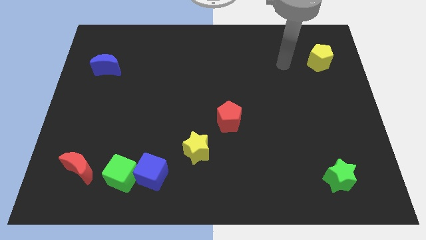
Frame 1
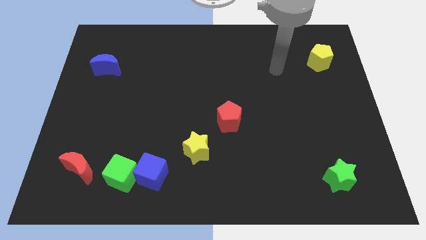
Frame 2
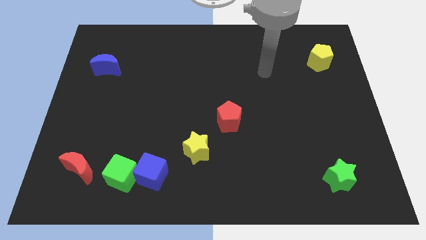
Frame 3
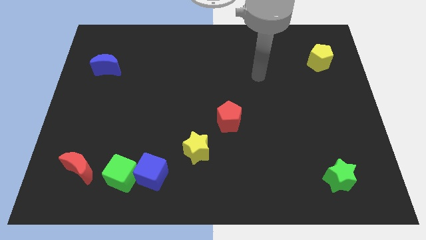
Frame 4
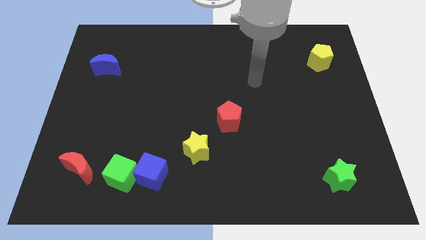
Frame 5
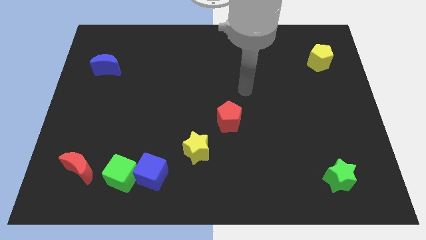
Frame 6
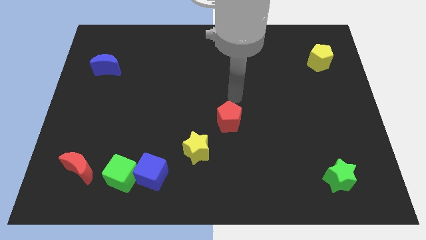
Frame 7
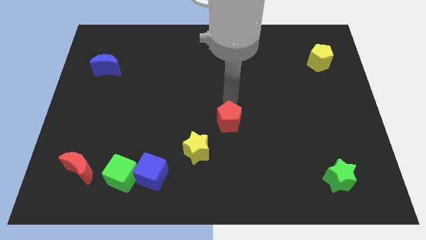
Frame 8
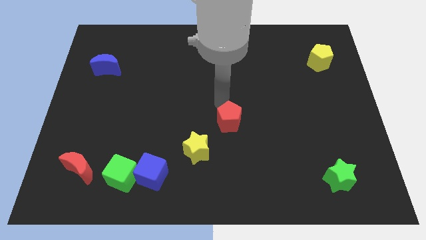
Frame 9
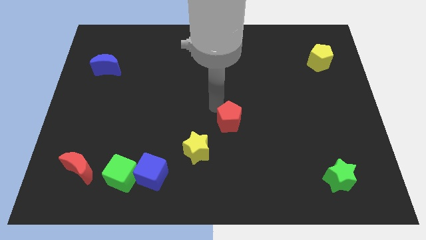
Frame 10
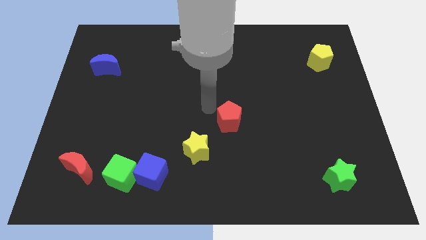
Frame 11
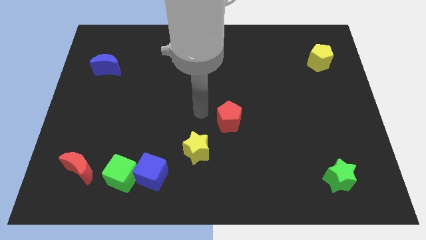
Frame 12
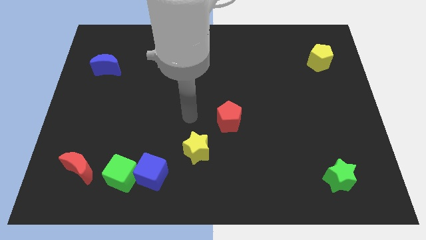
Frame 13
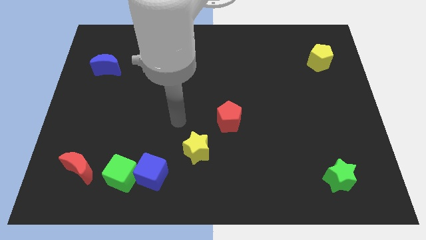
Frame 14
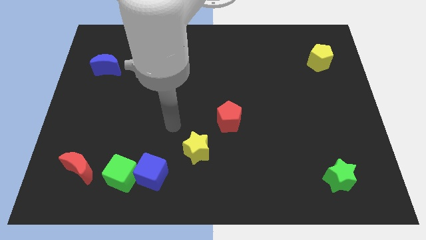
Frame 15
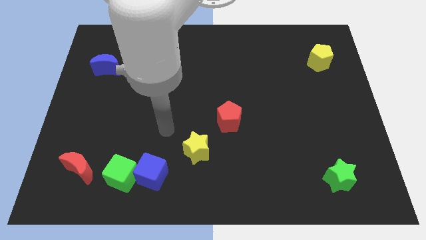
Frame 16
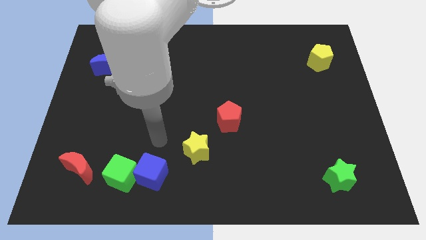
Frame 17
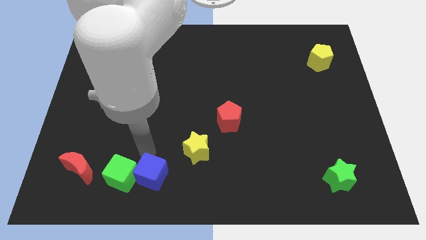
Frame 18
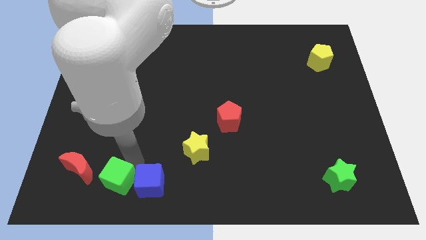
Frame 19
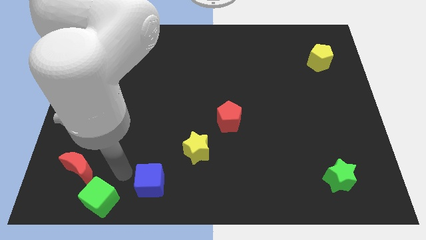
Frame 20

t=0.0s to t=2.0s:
separate the blue cube from the green cube

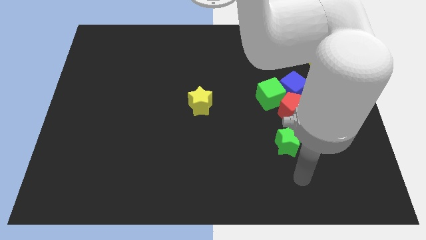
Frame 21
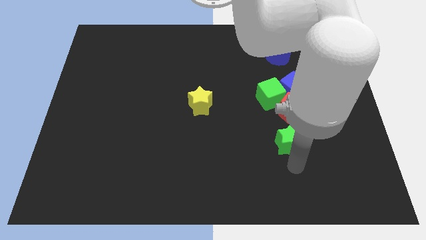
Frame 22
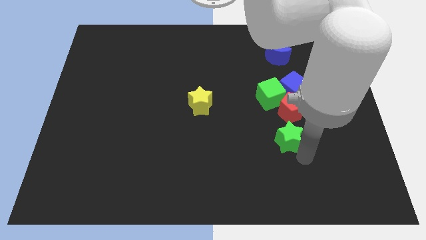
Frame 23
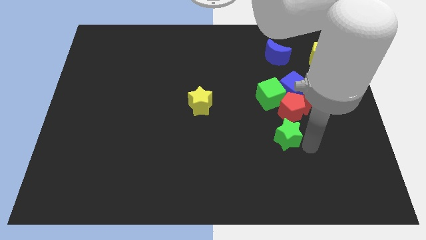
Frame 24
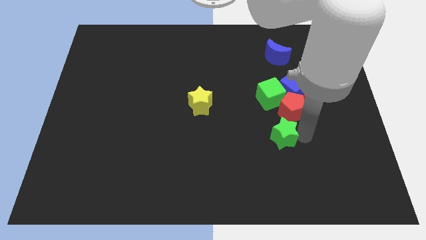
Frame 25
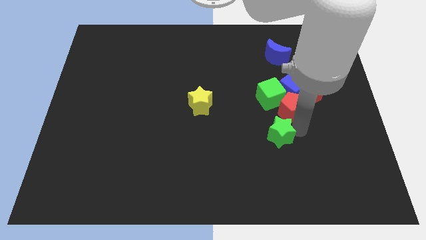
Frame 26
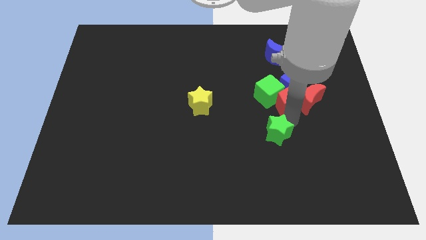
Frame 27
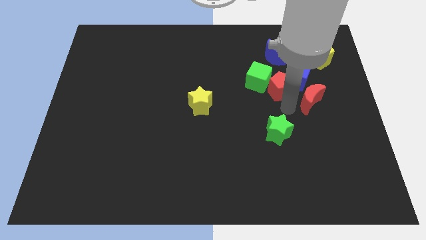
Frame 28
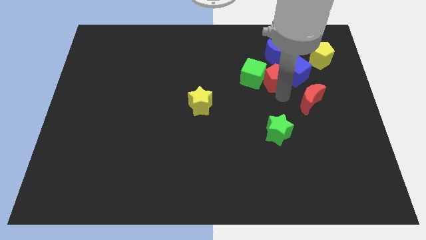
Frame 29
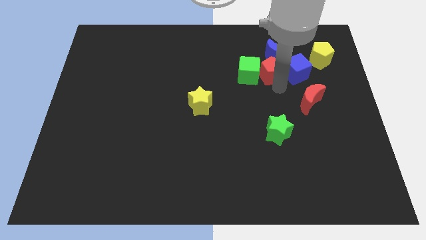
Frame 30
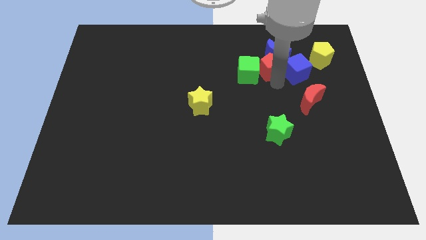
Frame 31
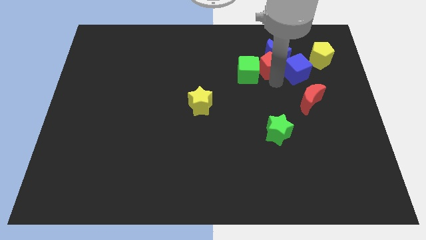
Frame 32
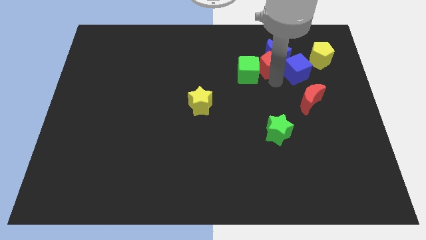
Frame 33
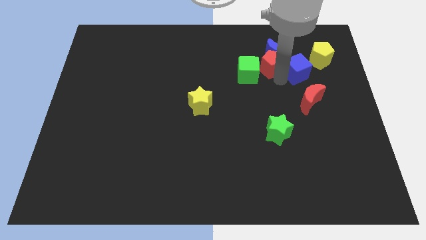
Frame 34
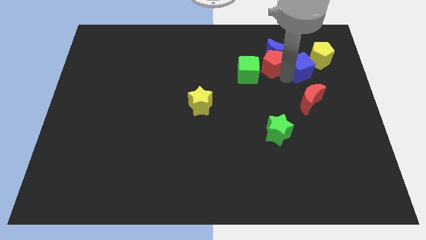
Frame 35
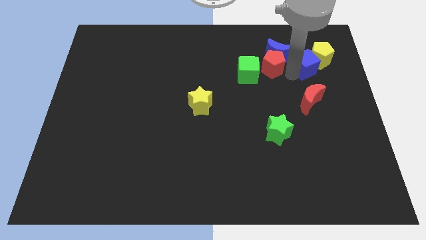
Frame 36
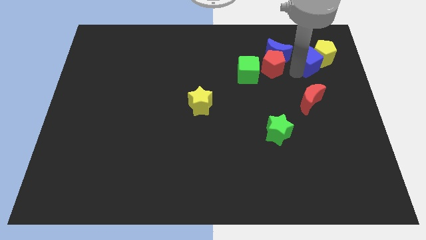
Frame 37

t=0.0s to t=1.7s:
move the blue cube away from the red moon, green cube, and red pentagon

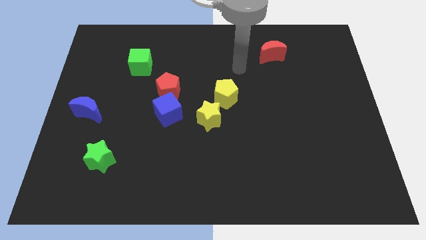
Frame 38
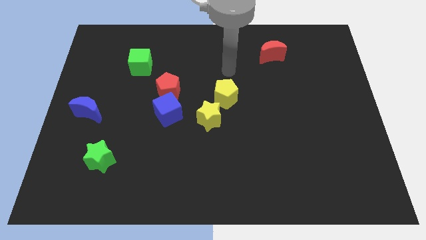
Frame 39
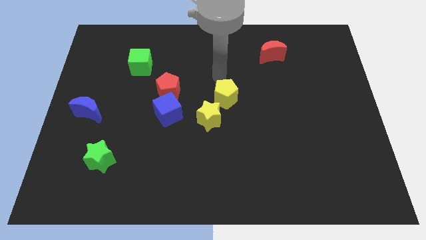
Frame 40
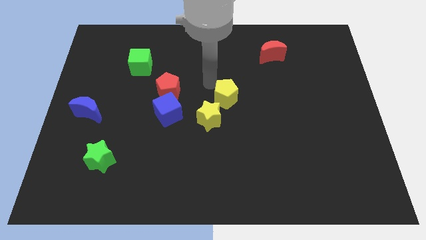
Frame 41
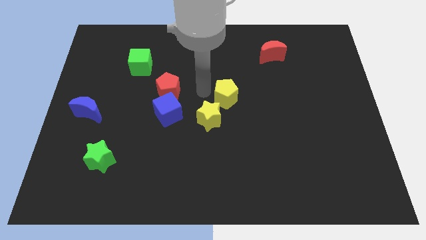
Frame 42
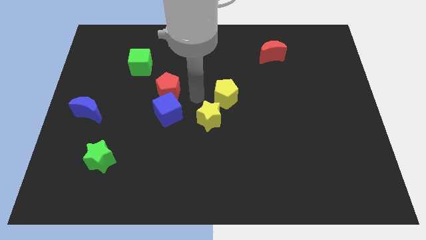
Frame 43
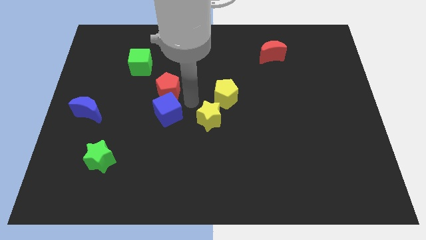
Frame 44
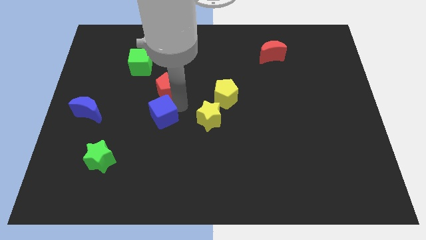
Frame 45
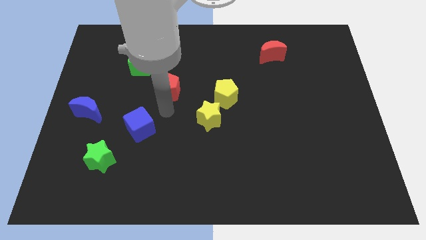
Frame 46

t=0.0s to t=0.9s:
move the red pentagon away from the blue cube

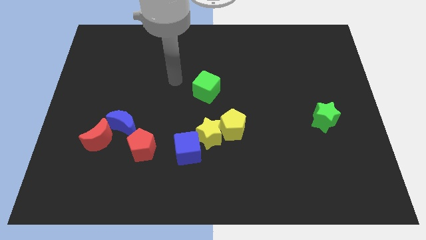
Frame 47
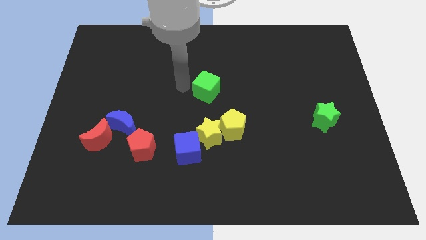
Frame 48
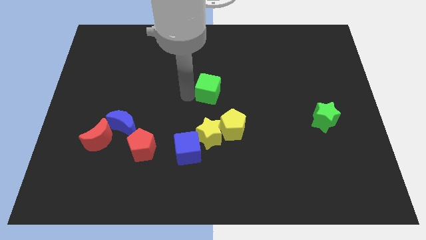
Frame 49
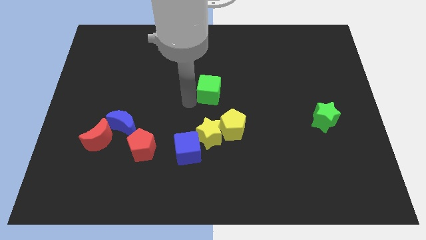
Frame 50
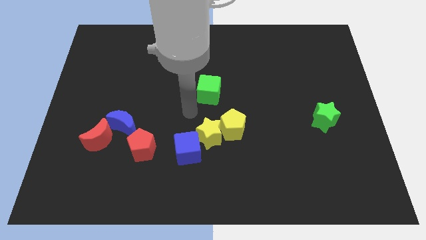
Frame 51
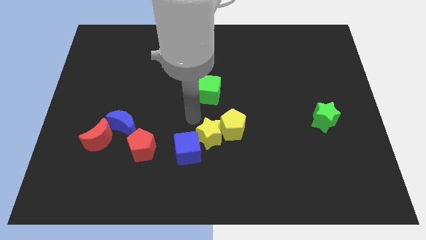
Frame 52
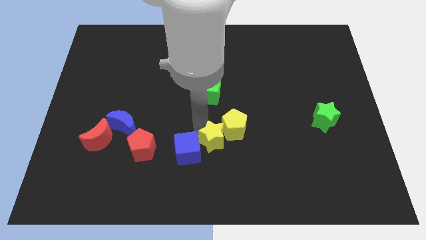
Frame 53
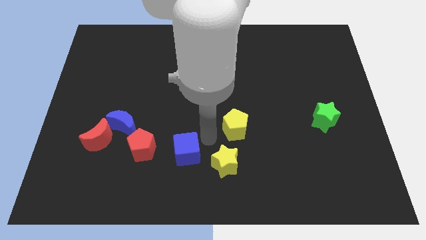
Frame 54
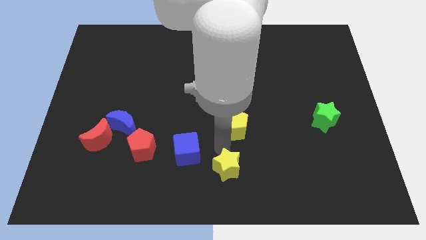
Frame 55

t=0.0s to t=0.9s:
move the yellow pentagon away from the yellow star

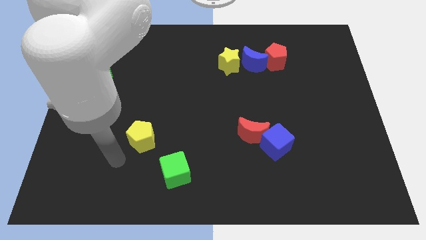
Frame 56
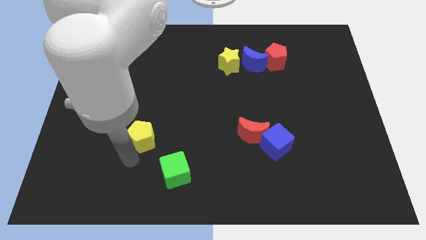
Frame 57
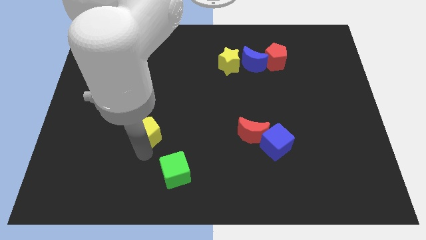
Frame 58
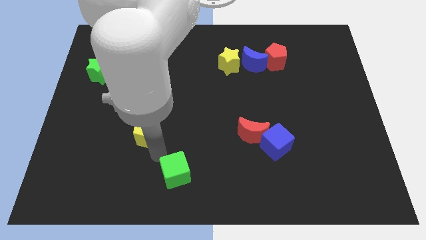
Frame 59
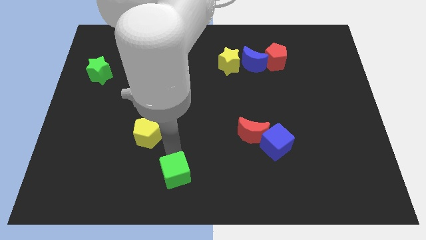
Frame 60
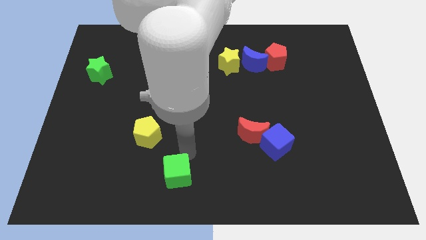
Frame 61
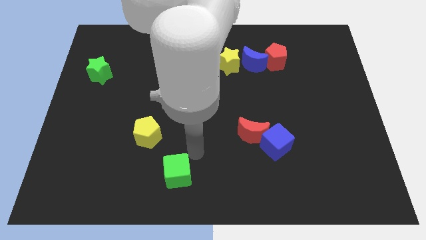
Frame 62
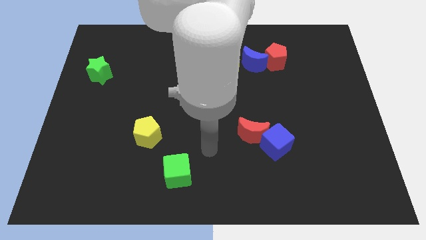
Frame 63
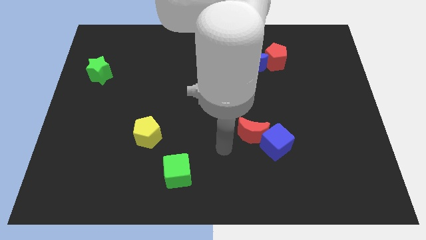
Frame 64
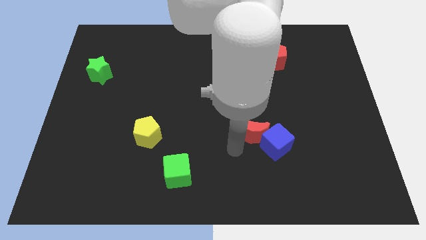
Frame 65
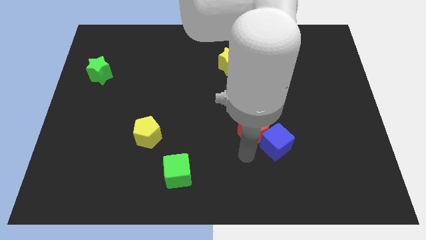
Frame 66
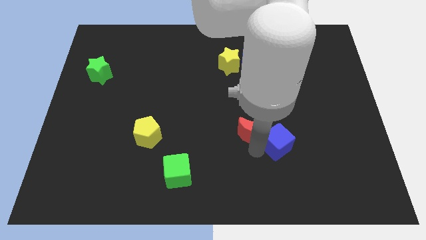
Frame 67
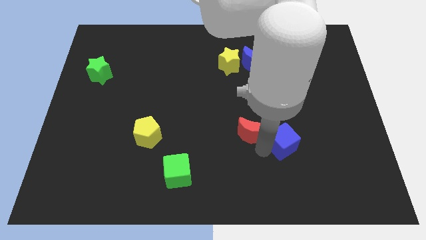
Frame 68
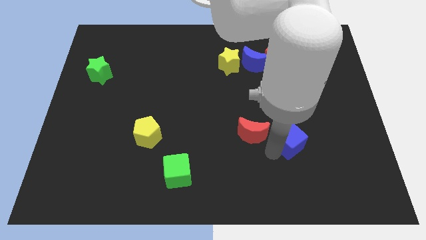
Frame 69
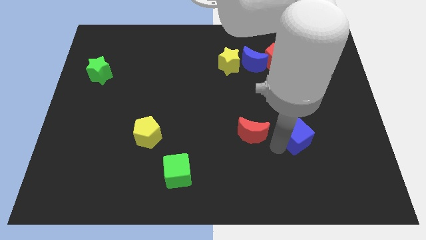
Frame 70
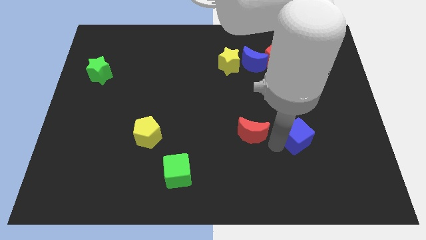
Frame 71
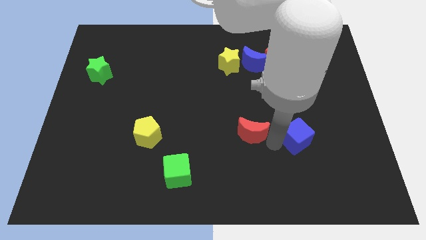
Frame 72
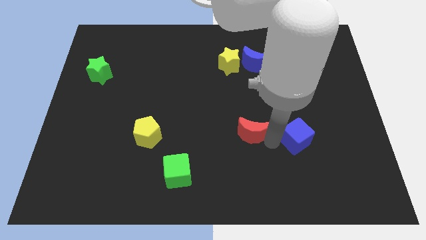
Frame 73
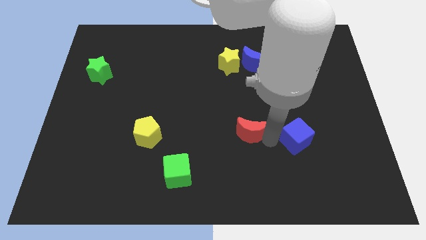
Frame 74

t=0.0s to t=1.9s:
move the red moon away from the blue cube

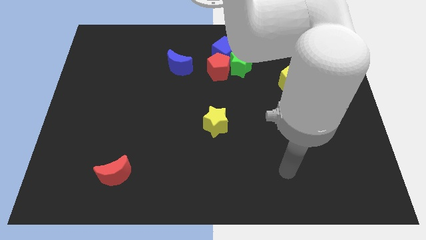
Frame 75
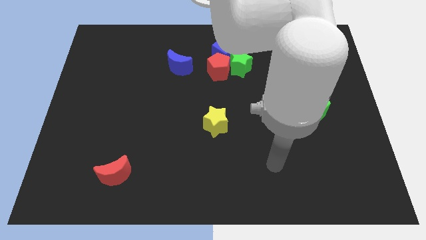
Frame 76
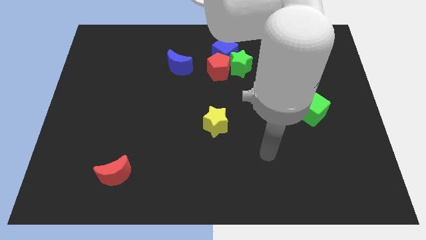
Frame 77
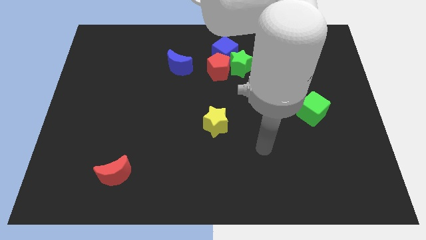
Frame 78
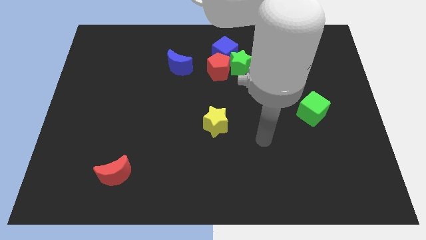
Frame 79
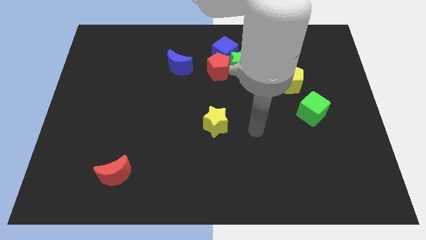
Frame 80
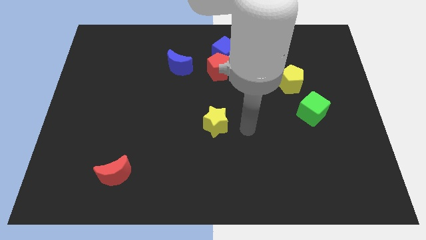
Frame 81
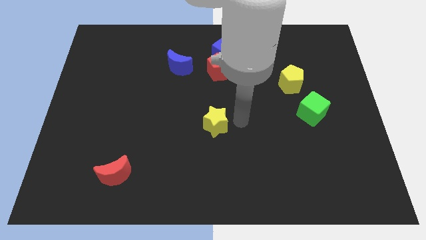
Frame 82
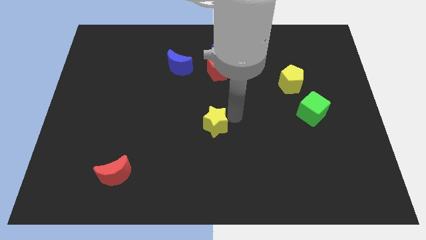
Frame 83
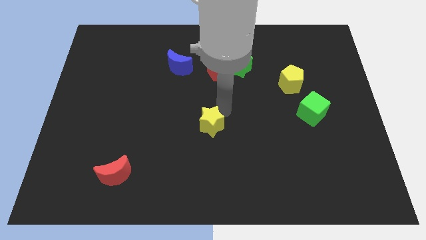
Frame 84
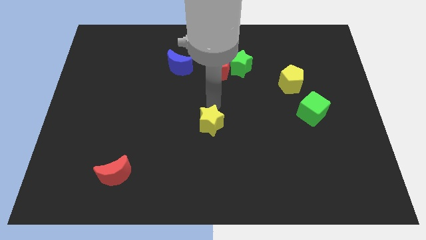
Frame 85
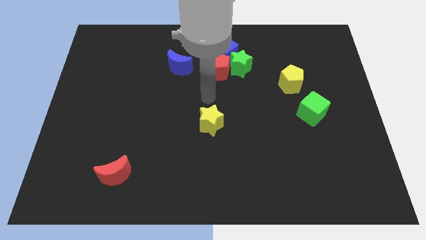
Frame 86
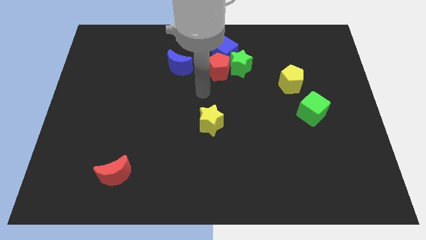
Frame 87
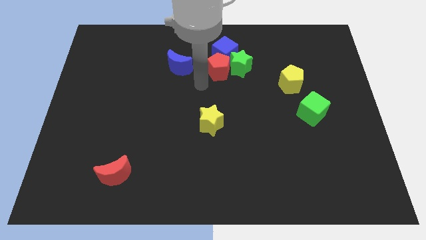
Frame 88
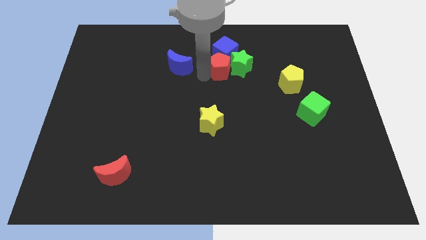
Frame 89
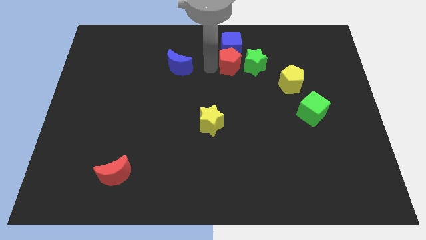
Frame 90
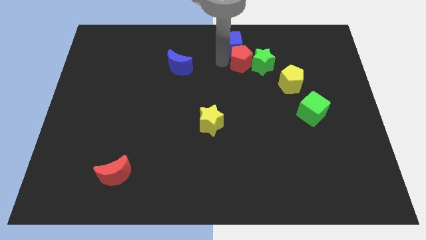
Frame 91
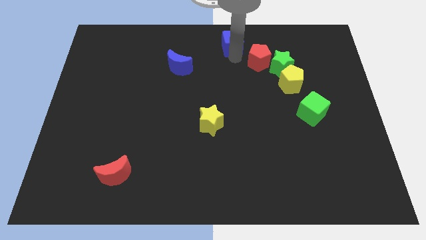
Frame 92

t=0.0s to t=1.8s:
pull the green star apart from the red pentagon and blue cube
